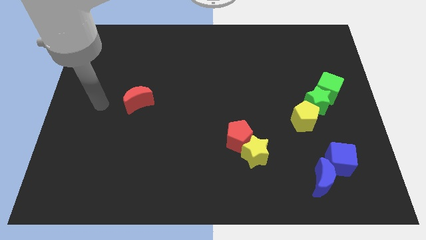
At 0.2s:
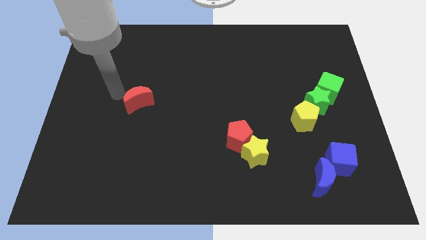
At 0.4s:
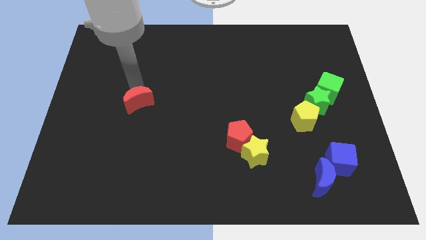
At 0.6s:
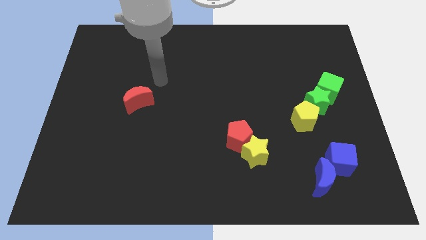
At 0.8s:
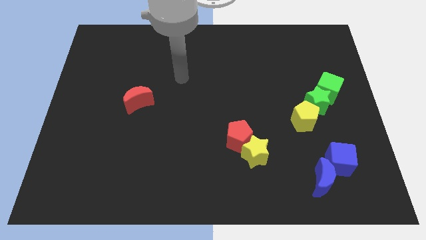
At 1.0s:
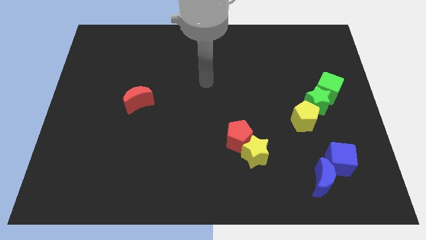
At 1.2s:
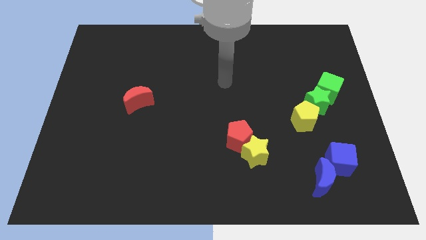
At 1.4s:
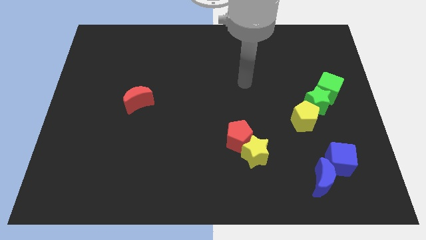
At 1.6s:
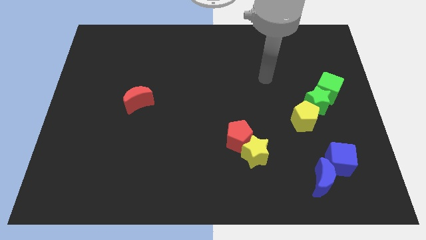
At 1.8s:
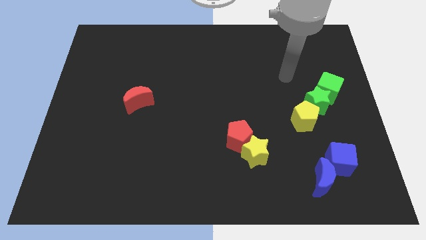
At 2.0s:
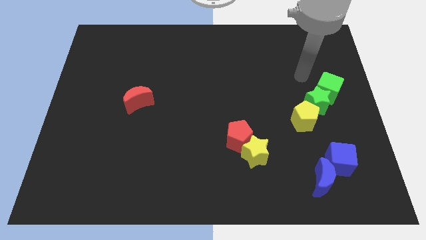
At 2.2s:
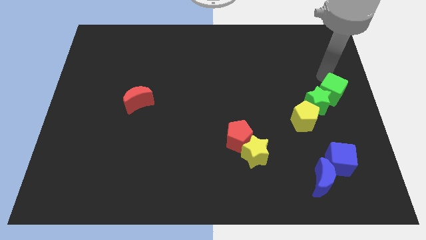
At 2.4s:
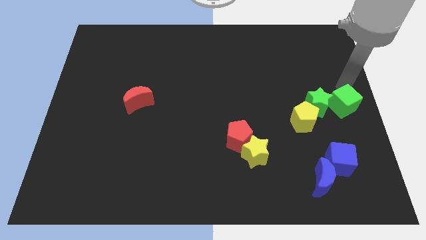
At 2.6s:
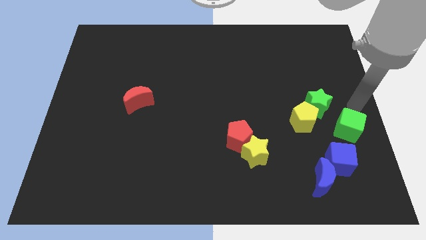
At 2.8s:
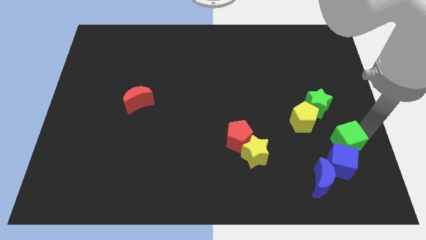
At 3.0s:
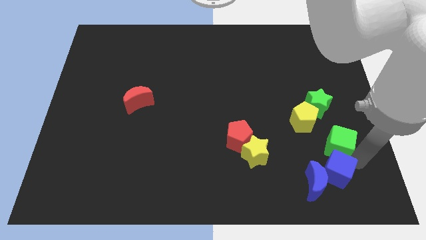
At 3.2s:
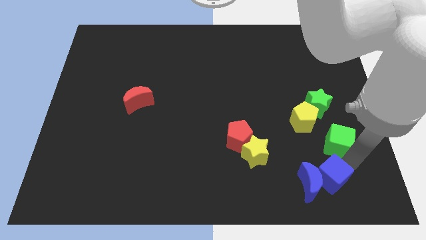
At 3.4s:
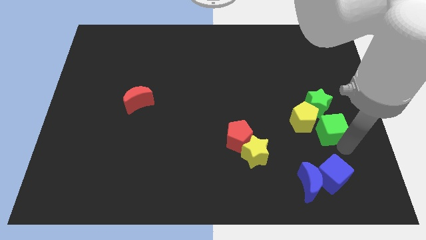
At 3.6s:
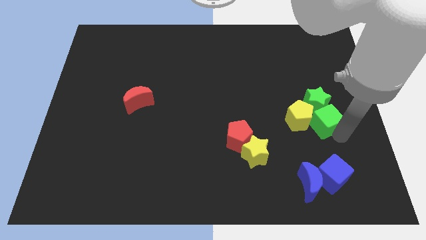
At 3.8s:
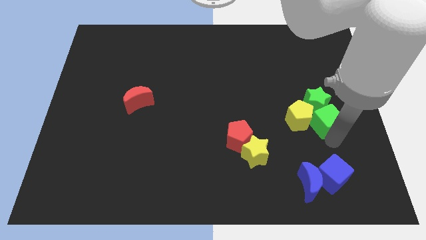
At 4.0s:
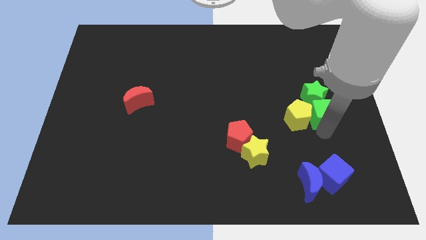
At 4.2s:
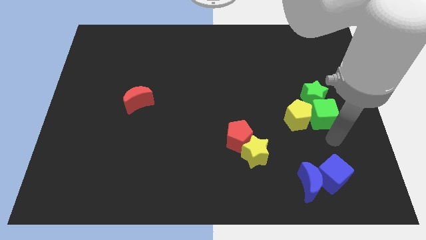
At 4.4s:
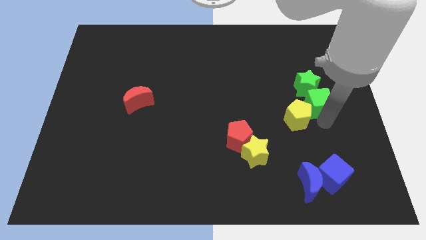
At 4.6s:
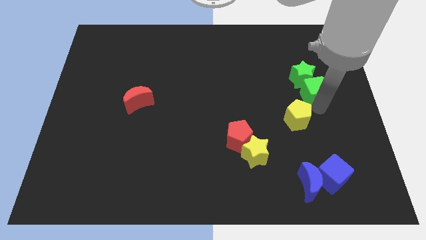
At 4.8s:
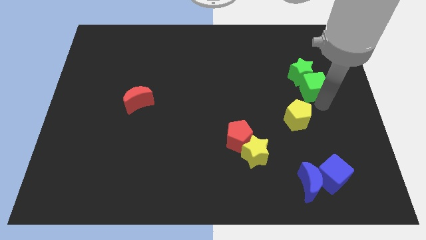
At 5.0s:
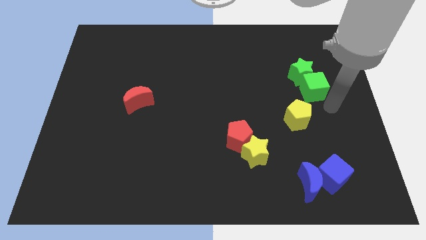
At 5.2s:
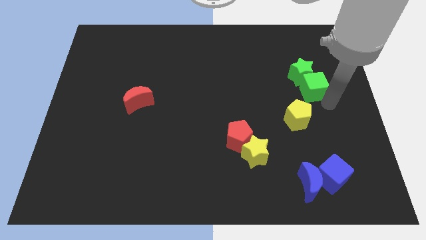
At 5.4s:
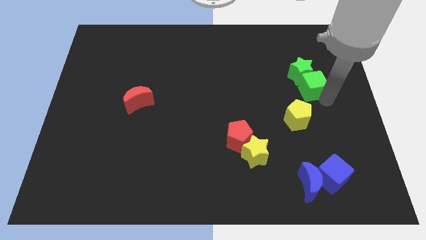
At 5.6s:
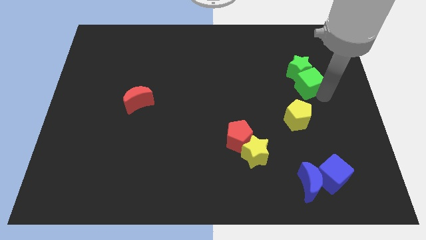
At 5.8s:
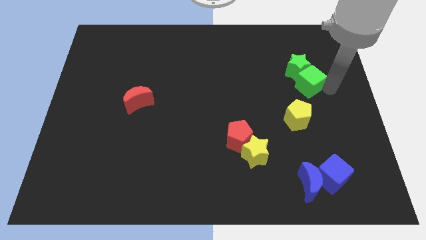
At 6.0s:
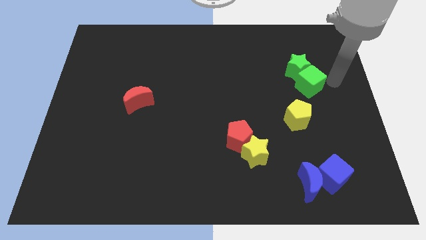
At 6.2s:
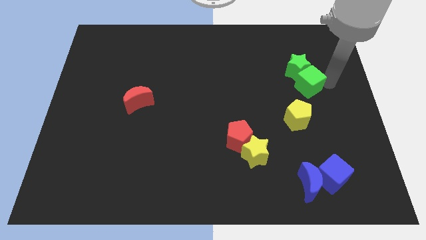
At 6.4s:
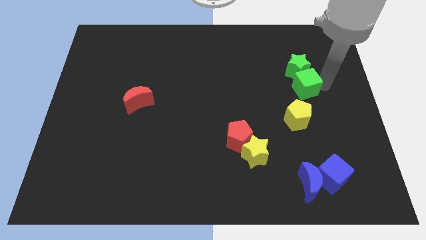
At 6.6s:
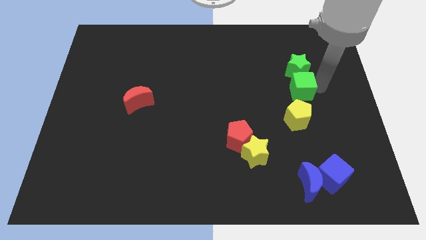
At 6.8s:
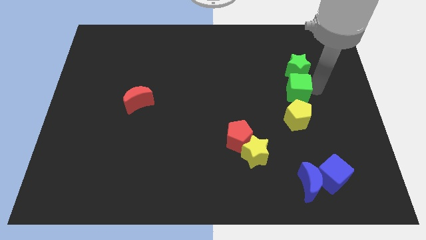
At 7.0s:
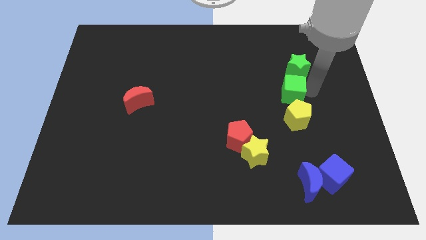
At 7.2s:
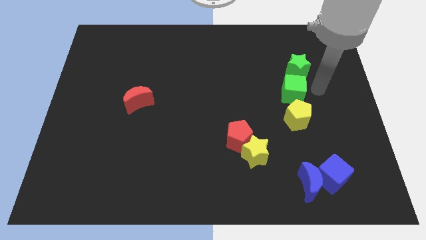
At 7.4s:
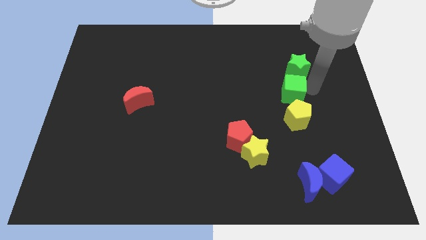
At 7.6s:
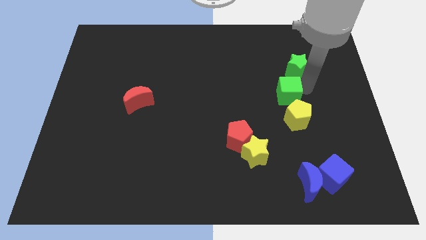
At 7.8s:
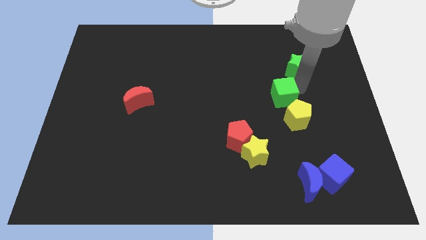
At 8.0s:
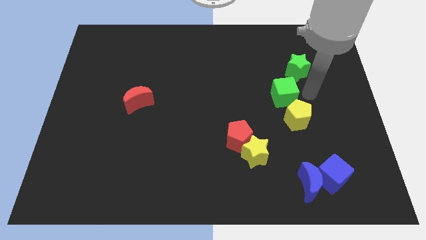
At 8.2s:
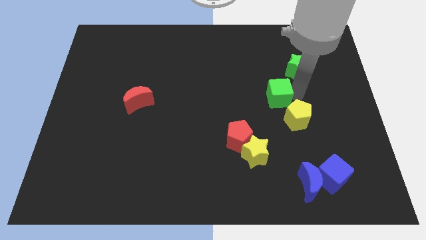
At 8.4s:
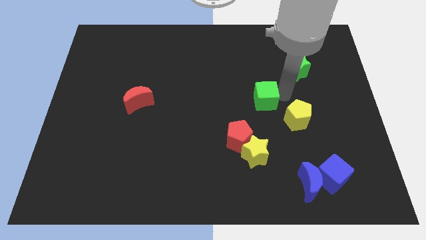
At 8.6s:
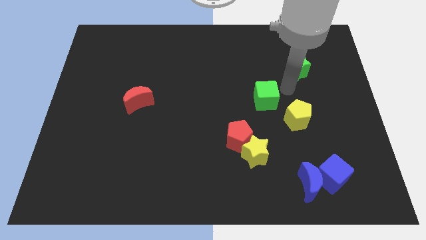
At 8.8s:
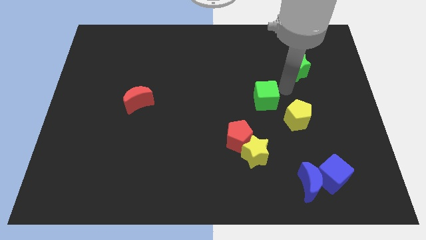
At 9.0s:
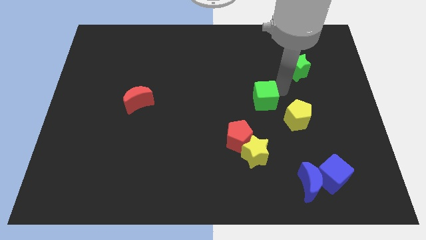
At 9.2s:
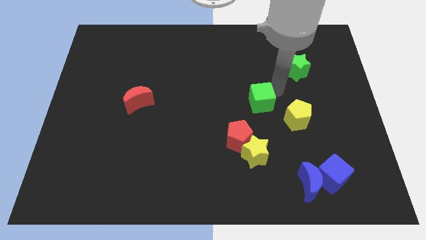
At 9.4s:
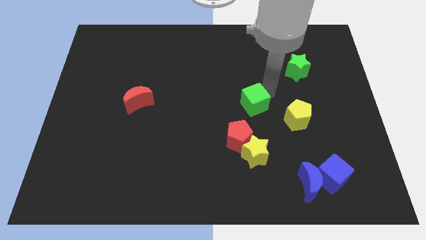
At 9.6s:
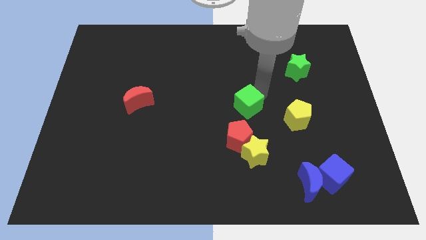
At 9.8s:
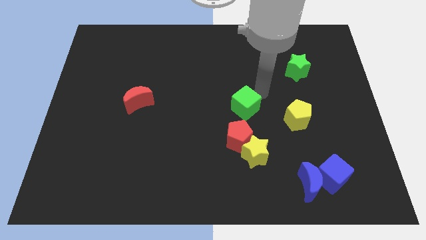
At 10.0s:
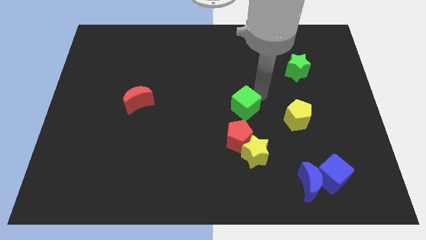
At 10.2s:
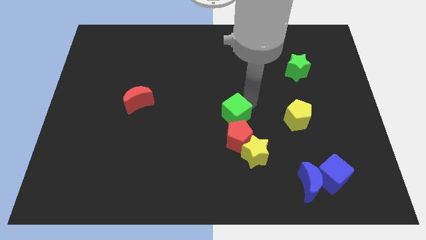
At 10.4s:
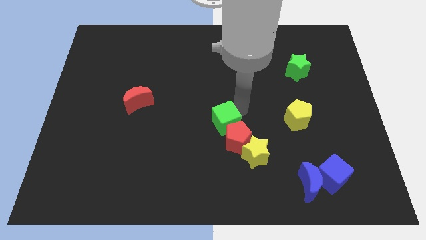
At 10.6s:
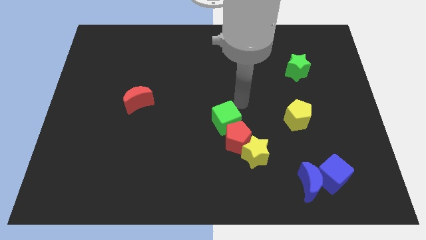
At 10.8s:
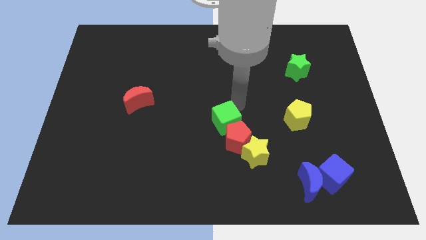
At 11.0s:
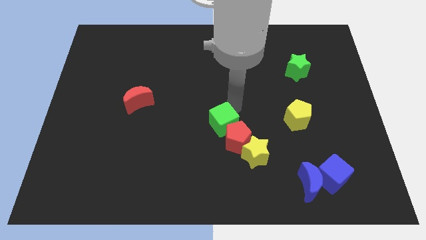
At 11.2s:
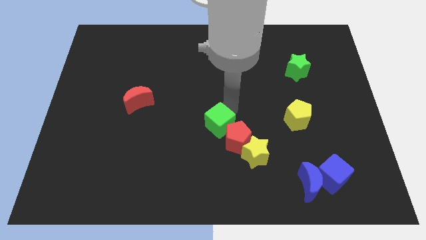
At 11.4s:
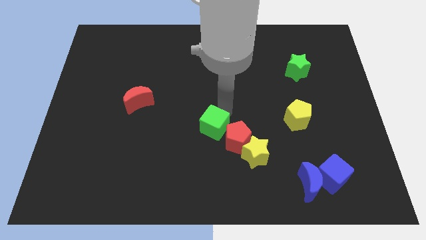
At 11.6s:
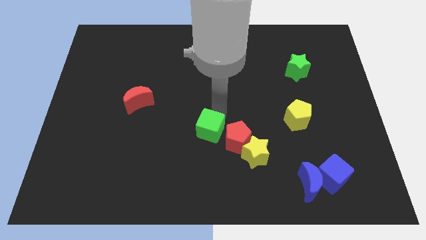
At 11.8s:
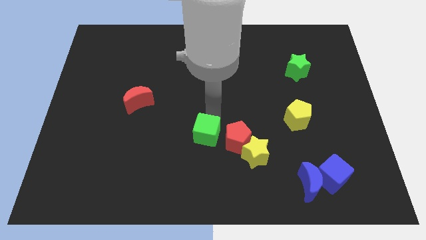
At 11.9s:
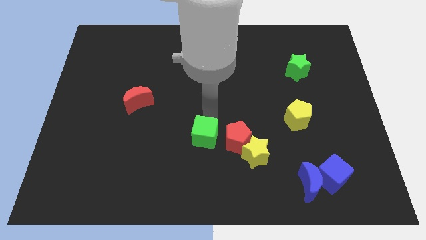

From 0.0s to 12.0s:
push the green cube to the left of the yellow star
